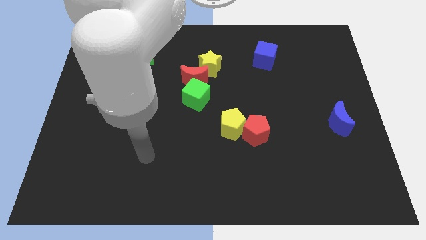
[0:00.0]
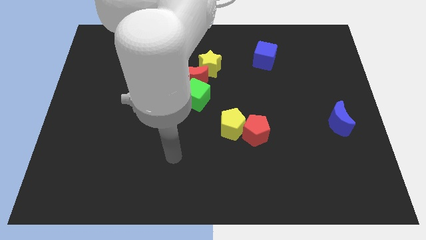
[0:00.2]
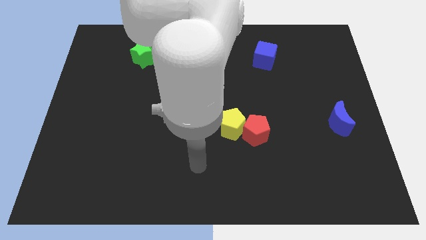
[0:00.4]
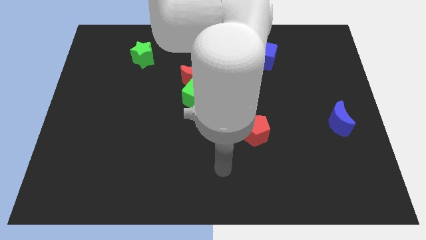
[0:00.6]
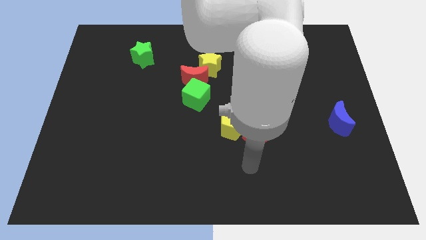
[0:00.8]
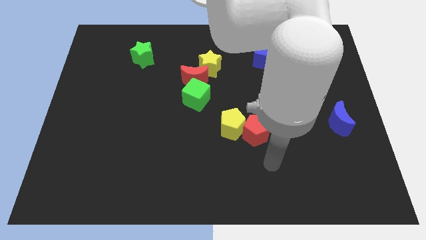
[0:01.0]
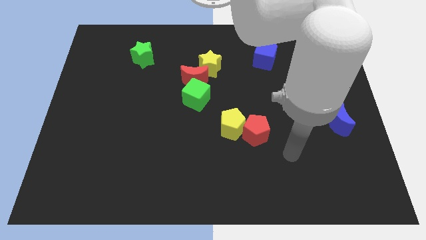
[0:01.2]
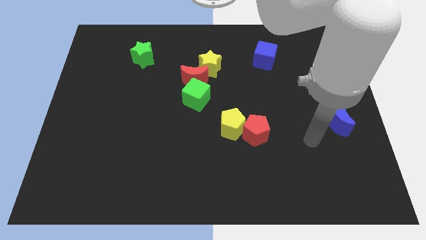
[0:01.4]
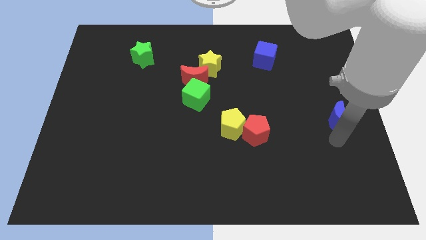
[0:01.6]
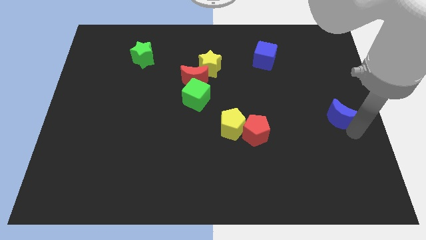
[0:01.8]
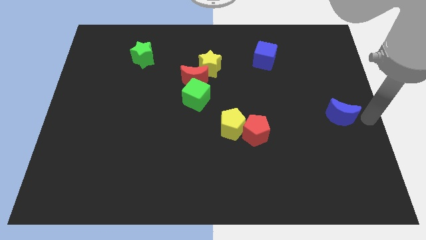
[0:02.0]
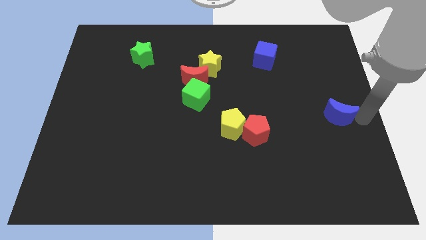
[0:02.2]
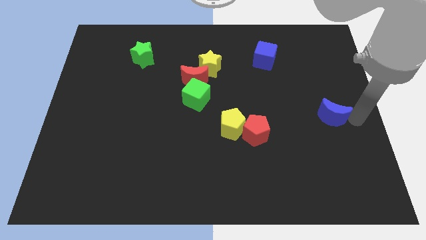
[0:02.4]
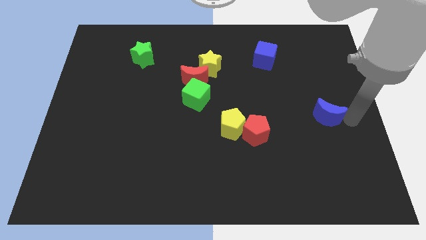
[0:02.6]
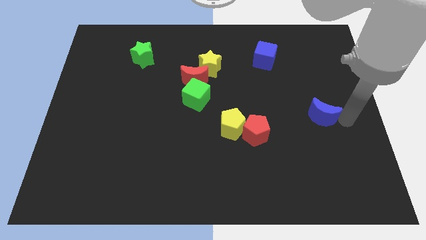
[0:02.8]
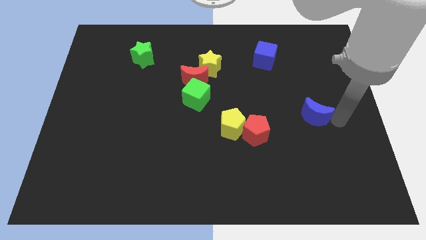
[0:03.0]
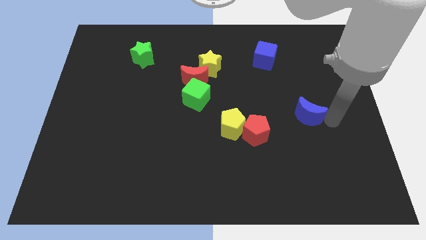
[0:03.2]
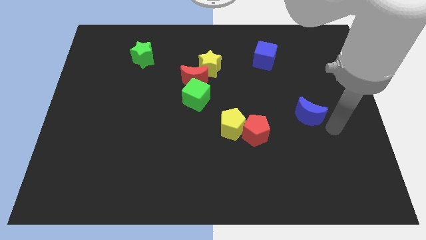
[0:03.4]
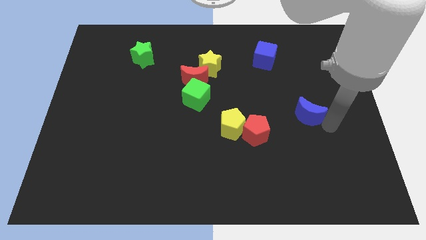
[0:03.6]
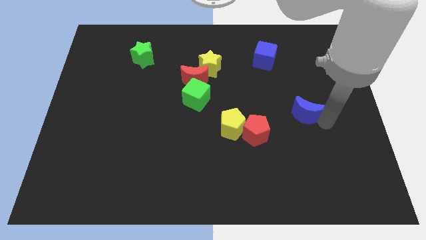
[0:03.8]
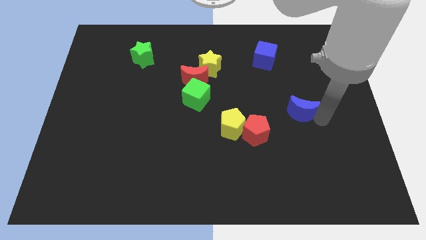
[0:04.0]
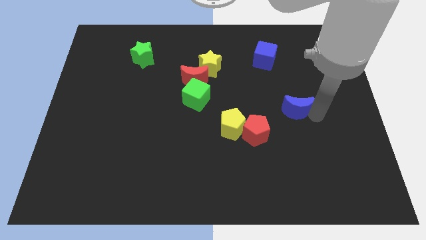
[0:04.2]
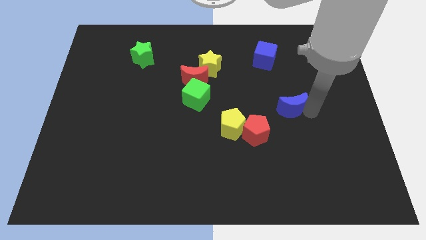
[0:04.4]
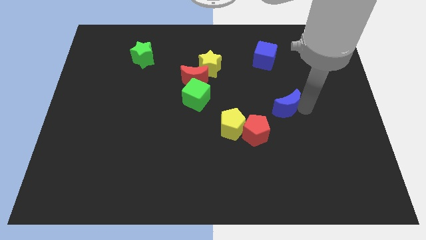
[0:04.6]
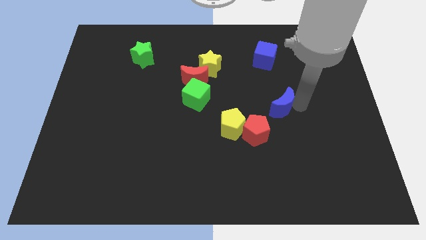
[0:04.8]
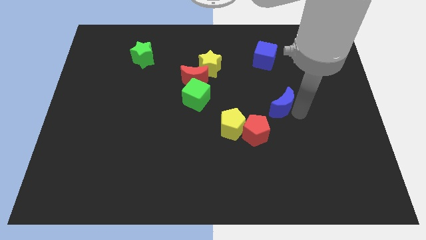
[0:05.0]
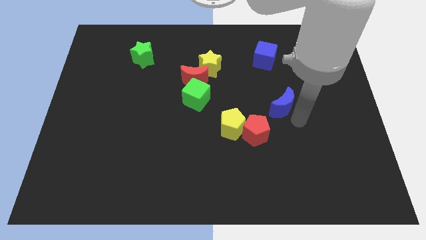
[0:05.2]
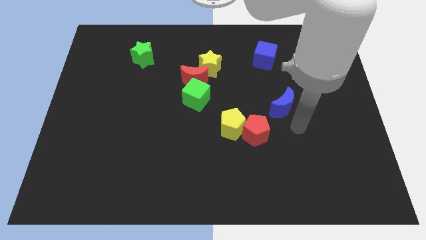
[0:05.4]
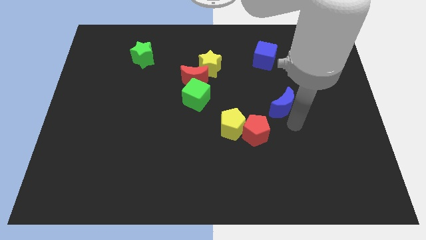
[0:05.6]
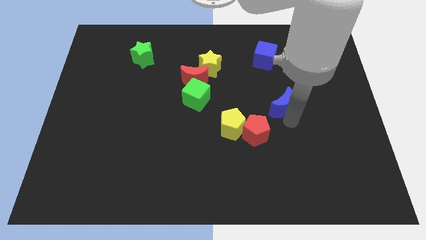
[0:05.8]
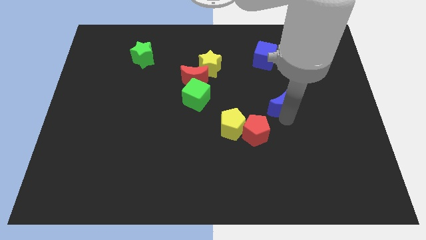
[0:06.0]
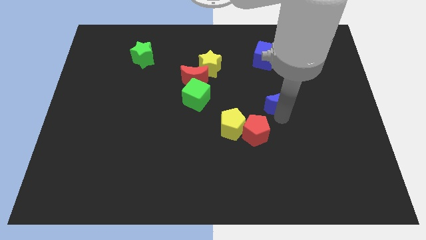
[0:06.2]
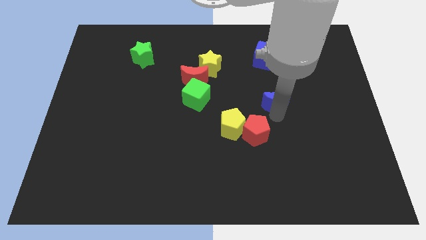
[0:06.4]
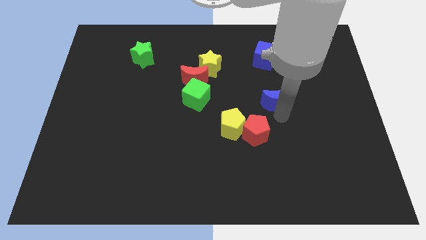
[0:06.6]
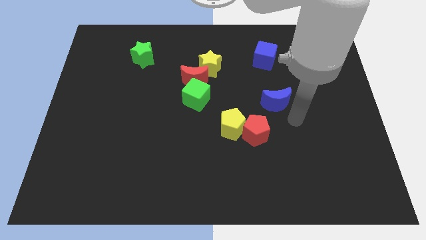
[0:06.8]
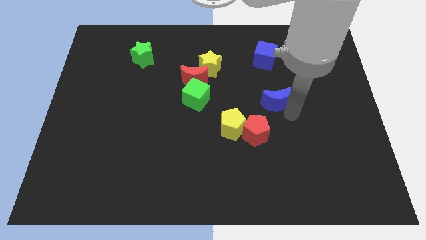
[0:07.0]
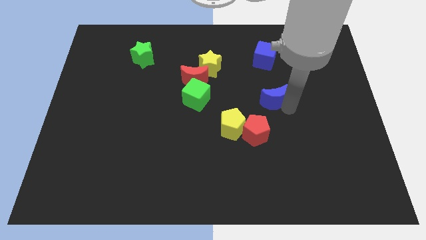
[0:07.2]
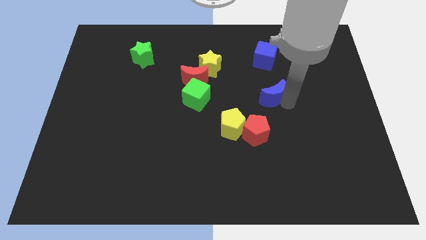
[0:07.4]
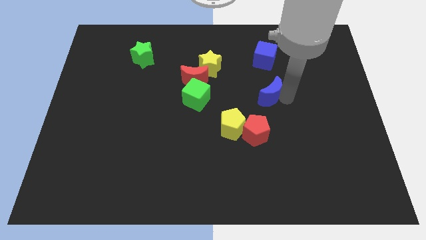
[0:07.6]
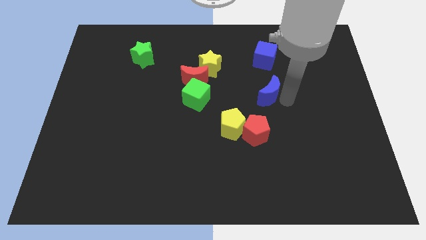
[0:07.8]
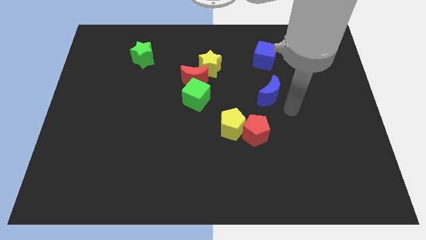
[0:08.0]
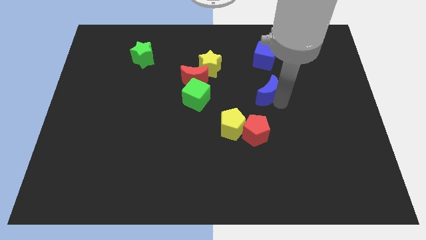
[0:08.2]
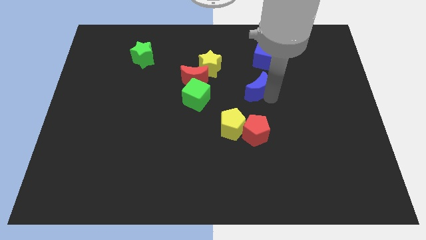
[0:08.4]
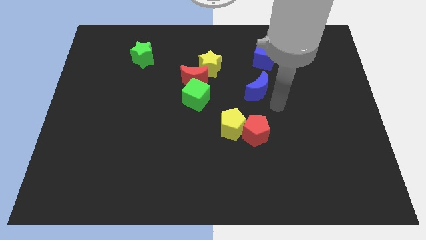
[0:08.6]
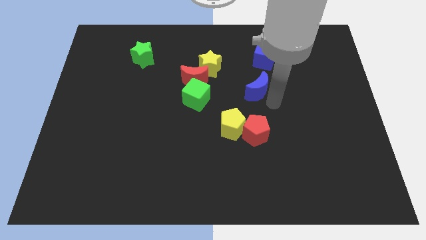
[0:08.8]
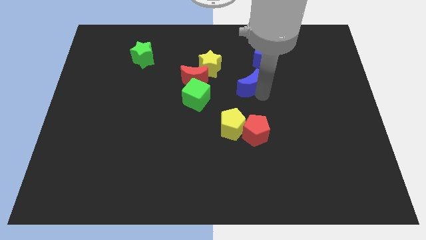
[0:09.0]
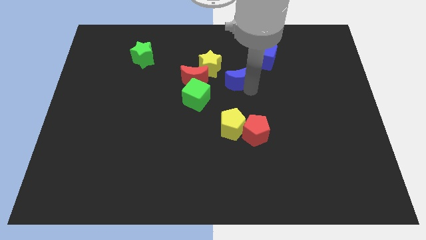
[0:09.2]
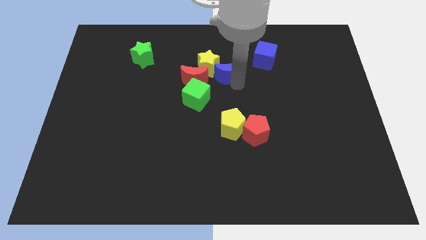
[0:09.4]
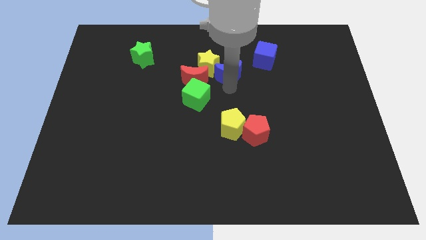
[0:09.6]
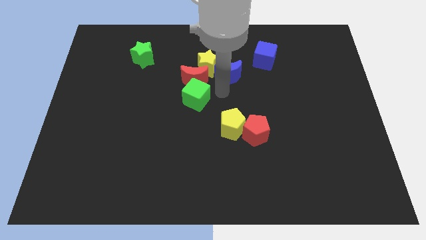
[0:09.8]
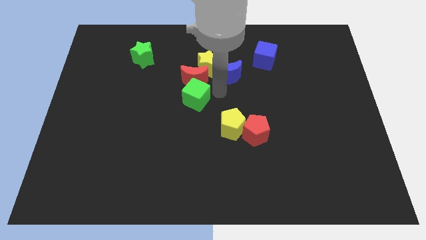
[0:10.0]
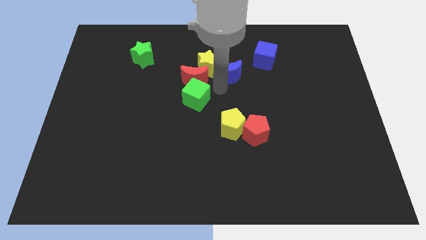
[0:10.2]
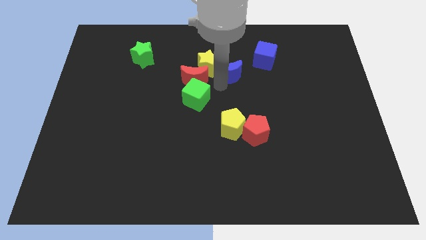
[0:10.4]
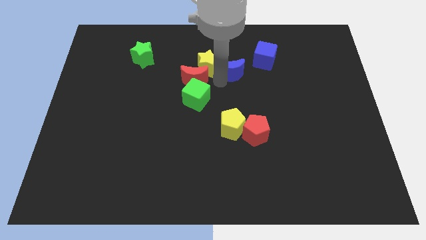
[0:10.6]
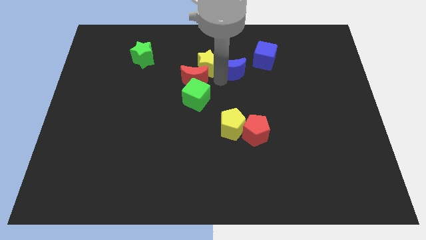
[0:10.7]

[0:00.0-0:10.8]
put the blue moon to the left of the blue cube

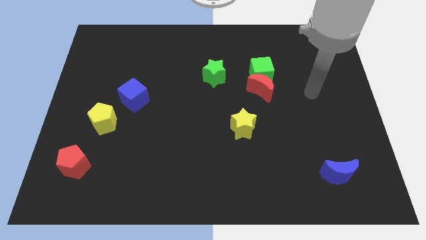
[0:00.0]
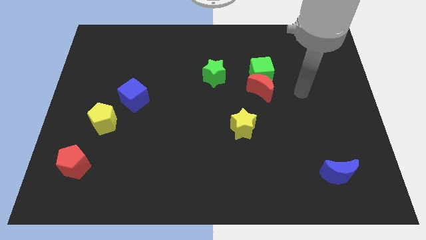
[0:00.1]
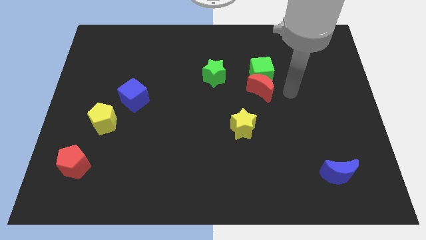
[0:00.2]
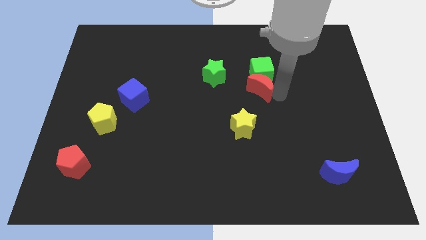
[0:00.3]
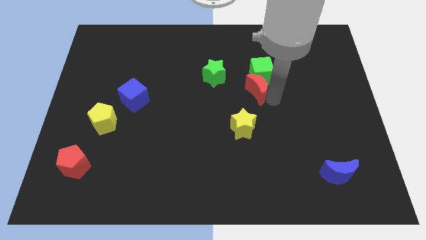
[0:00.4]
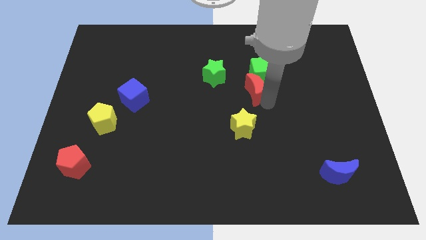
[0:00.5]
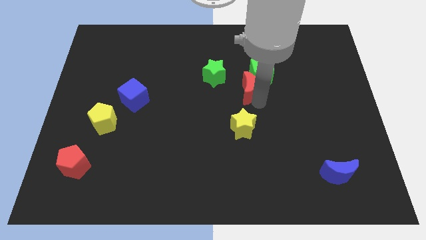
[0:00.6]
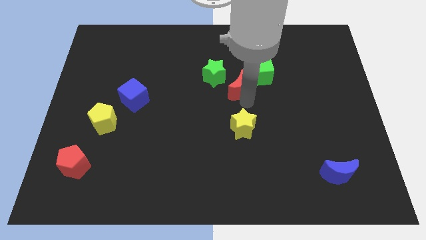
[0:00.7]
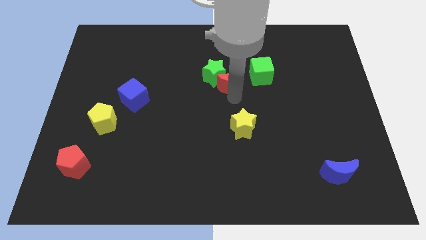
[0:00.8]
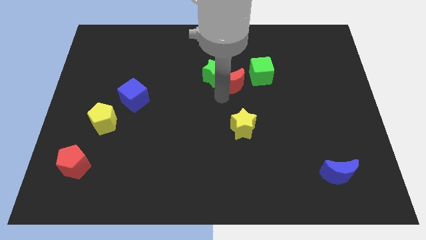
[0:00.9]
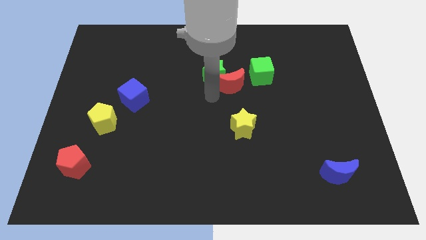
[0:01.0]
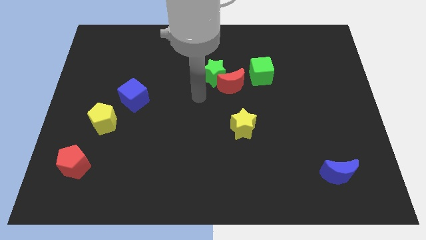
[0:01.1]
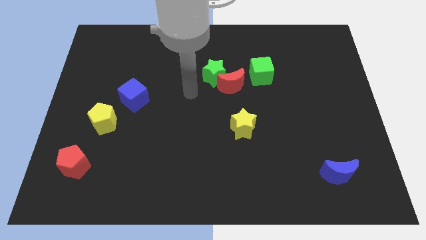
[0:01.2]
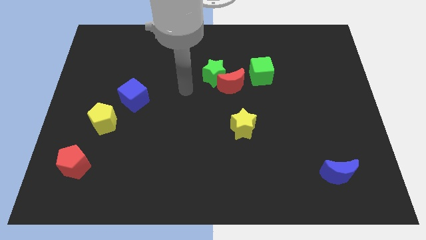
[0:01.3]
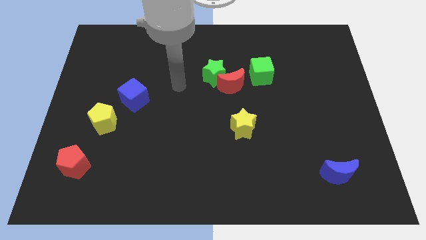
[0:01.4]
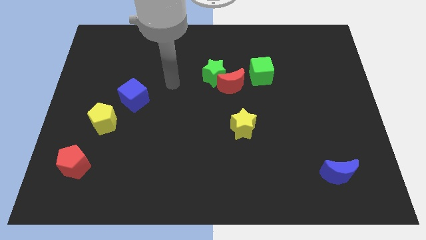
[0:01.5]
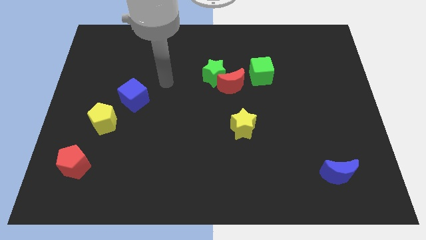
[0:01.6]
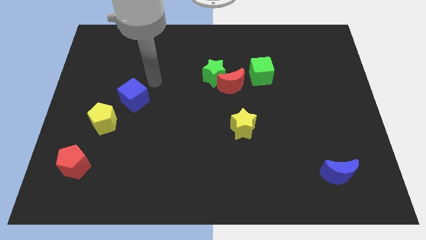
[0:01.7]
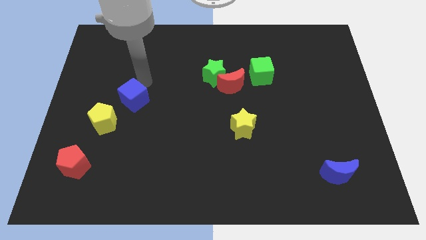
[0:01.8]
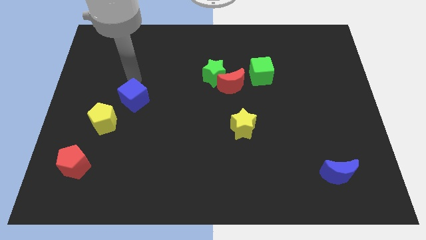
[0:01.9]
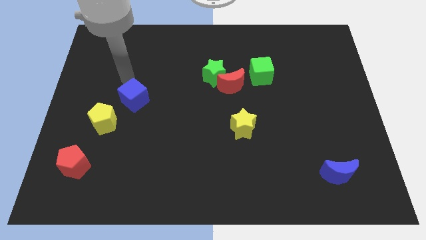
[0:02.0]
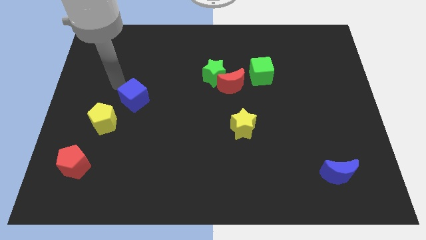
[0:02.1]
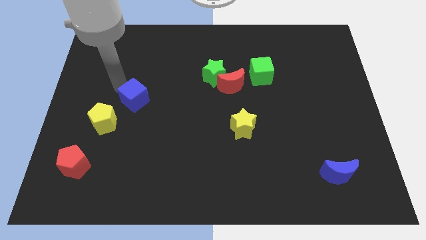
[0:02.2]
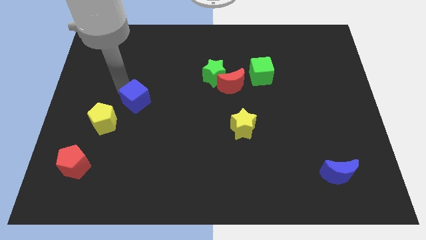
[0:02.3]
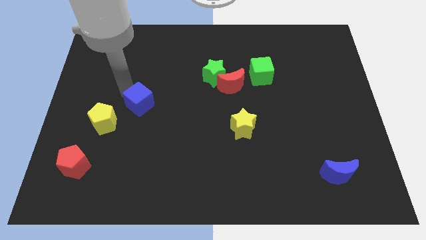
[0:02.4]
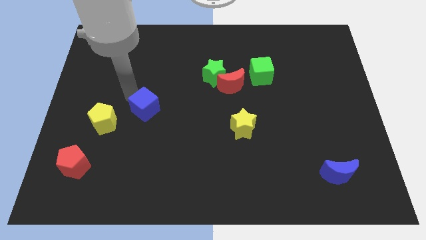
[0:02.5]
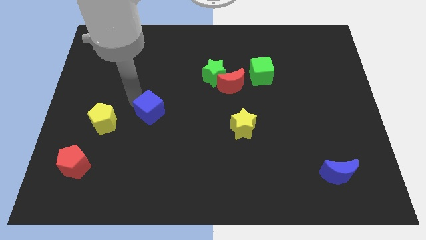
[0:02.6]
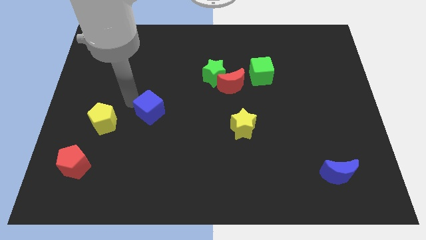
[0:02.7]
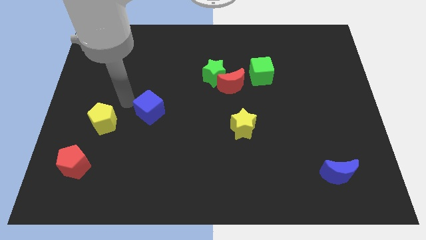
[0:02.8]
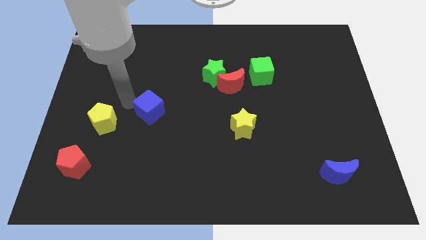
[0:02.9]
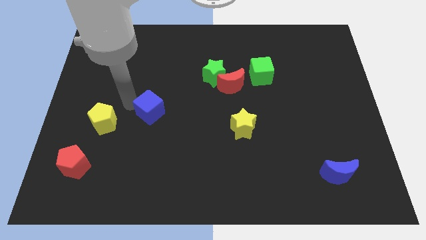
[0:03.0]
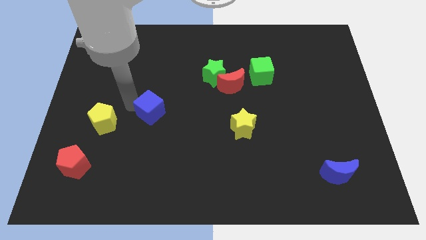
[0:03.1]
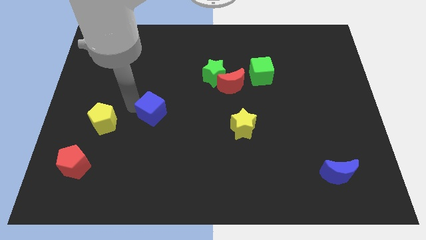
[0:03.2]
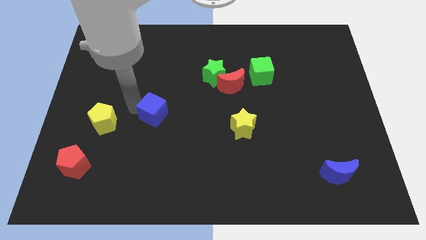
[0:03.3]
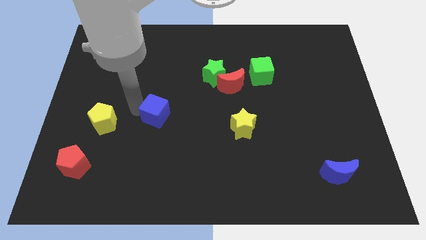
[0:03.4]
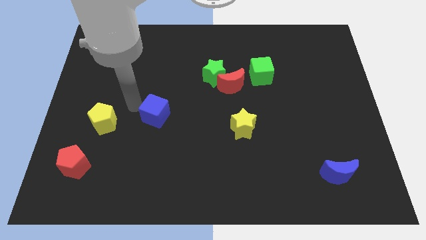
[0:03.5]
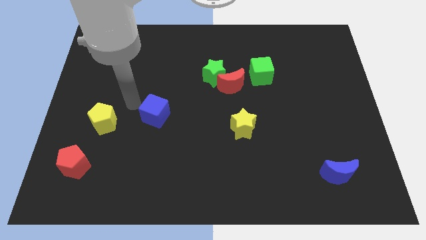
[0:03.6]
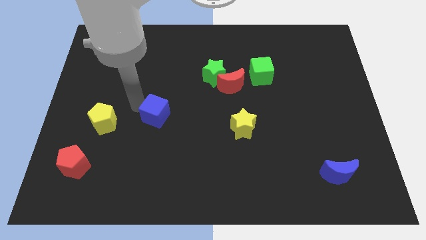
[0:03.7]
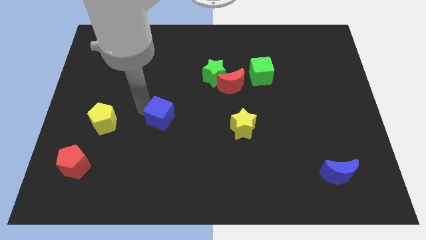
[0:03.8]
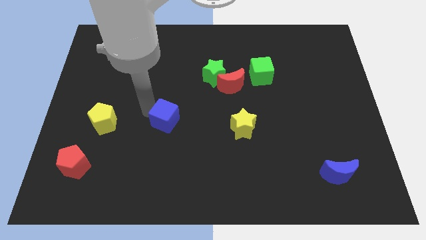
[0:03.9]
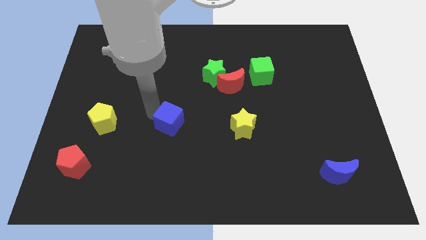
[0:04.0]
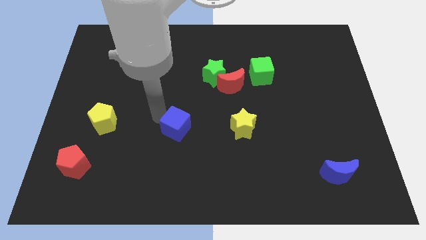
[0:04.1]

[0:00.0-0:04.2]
slide the blue cube to the left side of the yellow star
